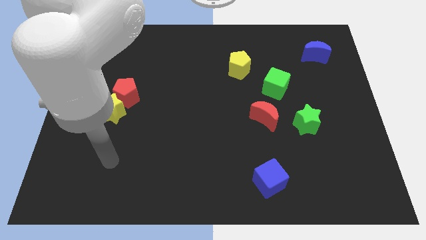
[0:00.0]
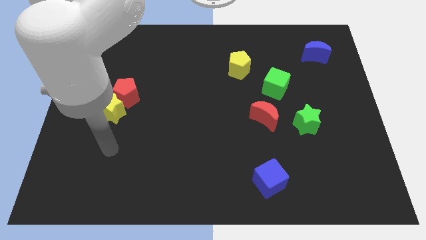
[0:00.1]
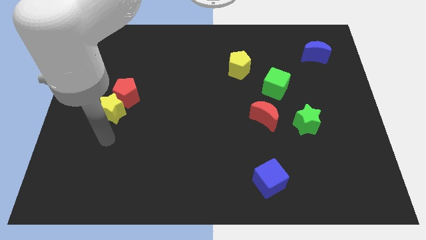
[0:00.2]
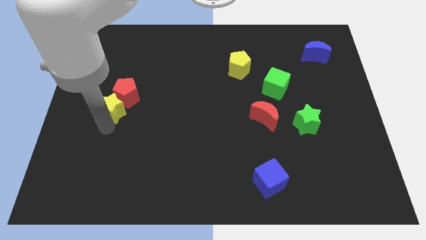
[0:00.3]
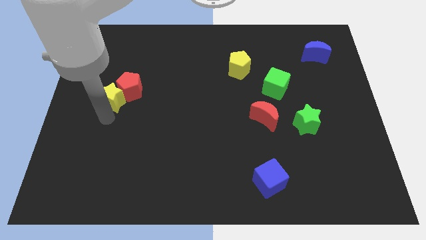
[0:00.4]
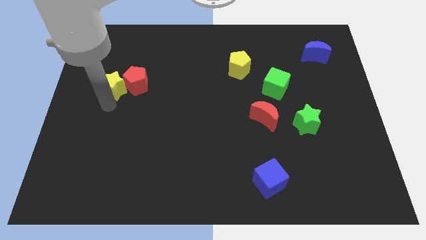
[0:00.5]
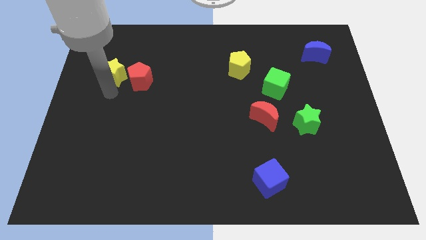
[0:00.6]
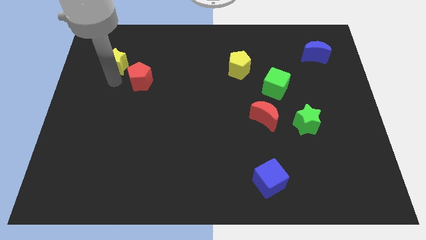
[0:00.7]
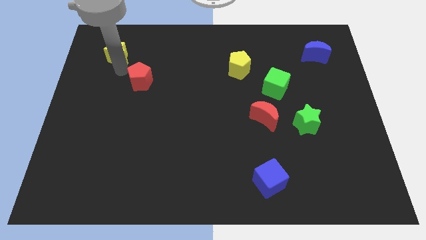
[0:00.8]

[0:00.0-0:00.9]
separate the red pentagon from the yellow star

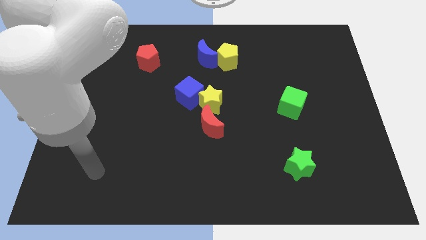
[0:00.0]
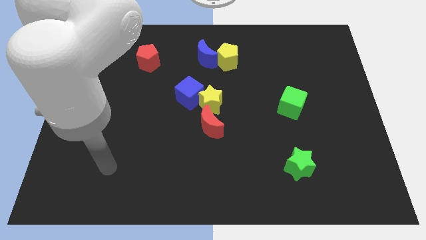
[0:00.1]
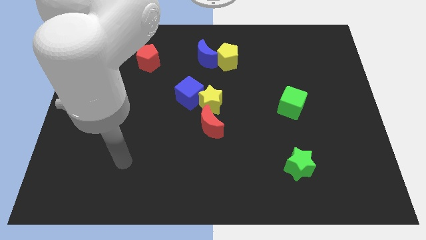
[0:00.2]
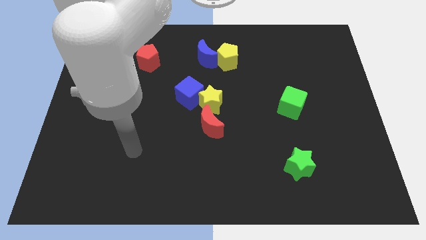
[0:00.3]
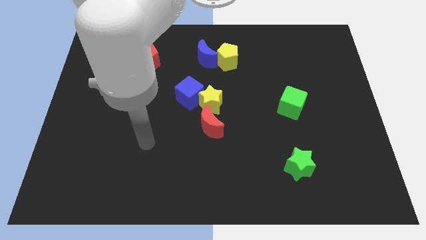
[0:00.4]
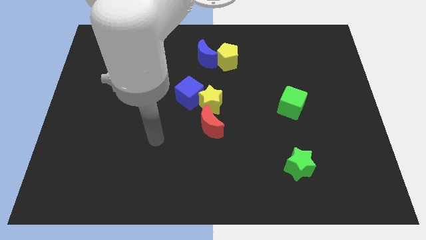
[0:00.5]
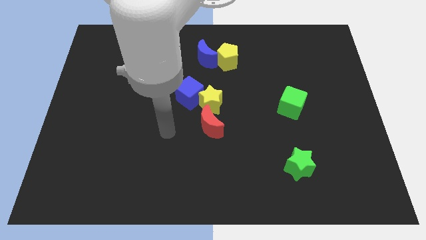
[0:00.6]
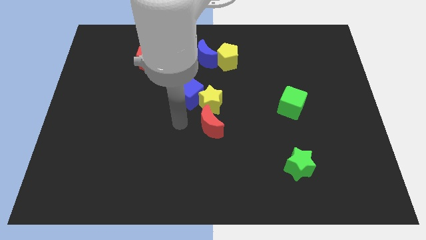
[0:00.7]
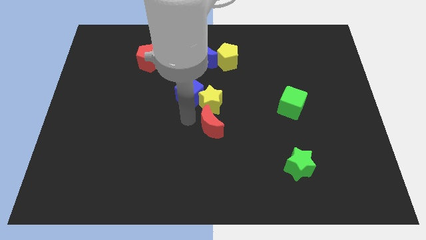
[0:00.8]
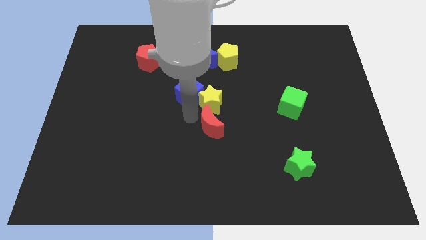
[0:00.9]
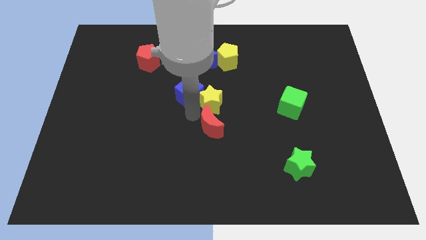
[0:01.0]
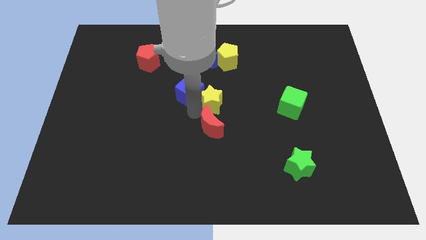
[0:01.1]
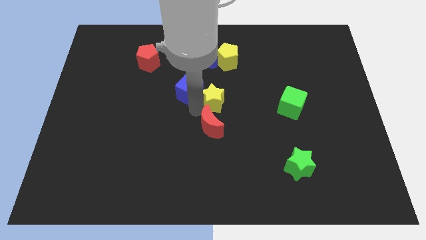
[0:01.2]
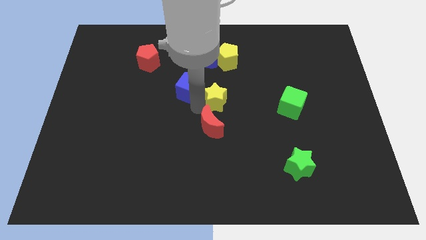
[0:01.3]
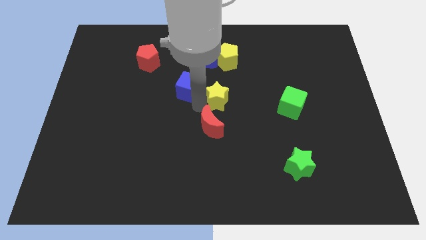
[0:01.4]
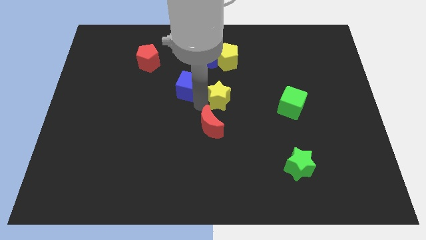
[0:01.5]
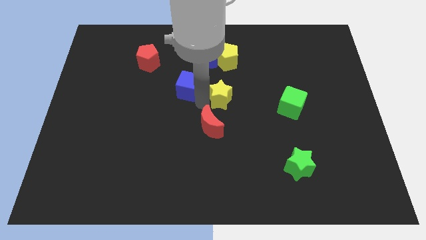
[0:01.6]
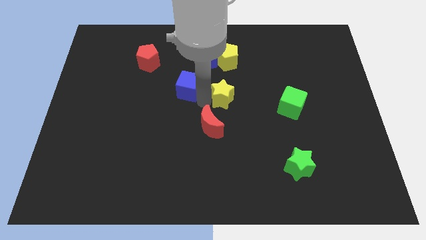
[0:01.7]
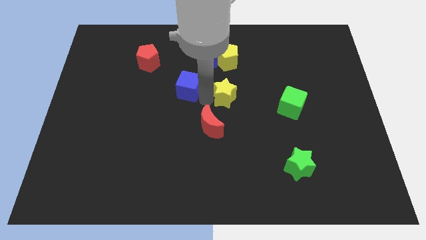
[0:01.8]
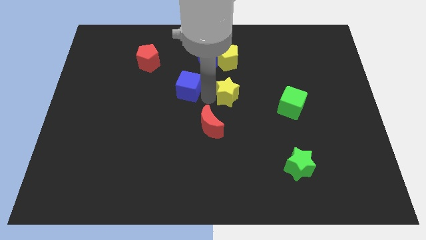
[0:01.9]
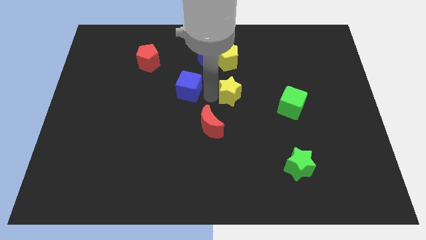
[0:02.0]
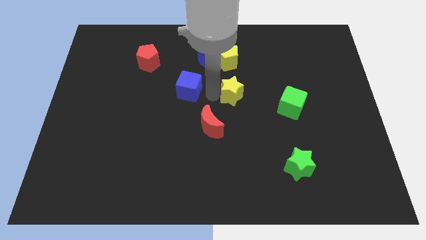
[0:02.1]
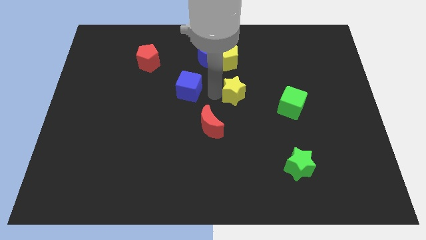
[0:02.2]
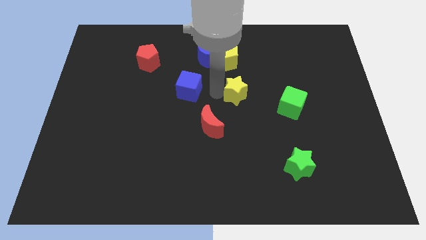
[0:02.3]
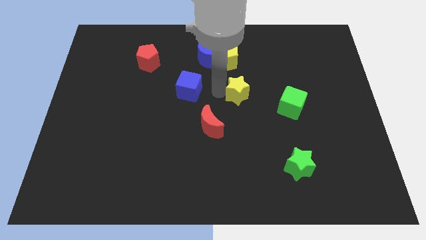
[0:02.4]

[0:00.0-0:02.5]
separate the yellow star from the blue cube and red moon

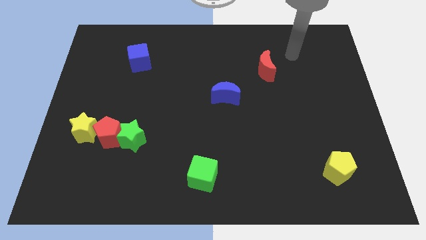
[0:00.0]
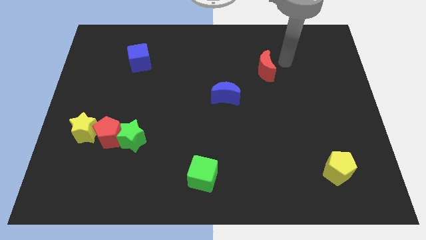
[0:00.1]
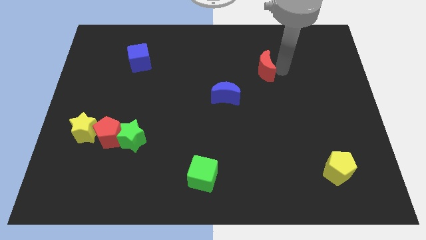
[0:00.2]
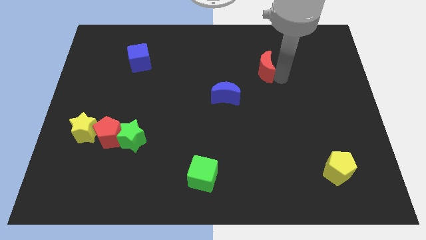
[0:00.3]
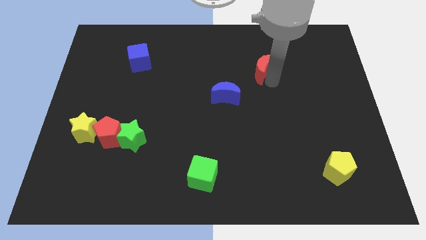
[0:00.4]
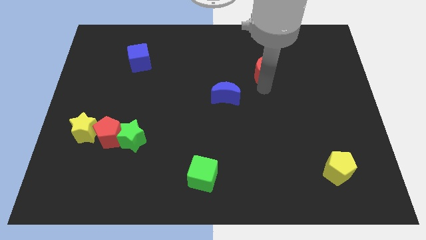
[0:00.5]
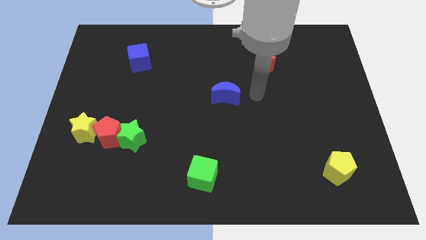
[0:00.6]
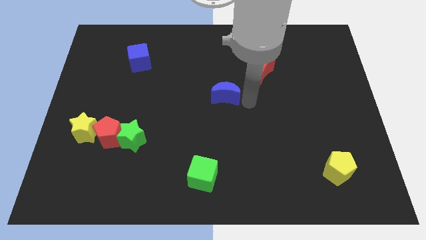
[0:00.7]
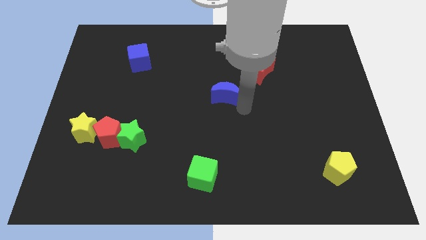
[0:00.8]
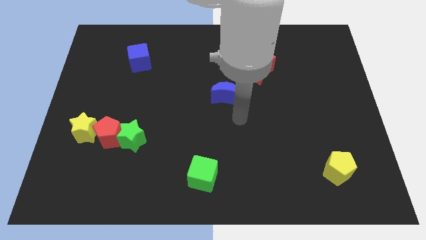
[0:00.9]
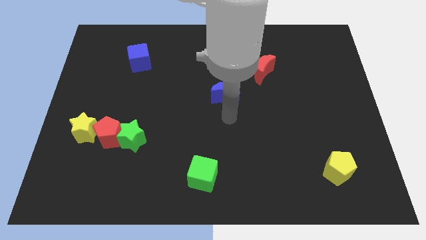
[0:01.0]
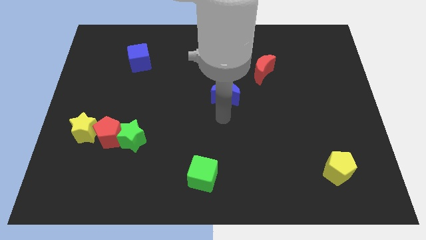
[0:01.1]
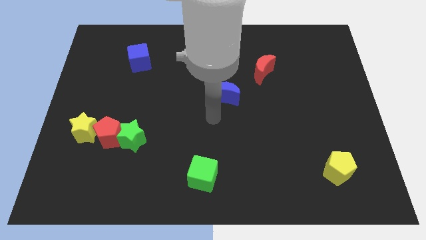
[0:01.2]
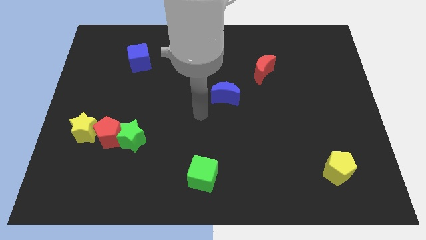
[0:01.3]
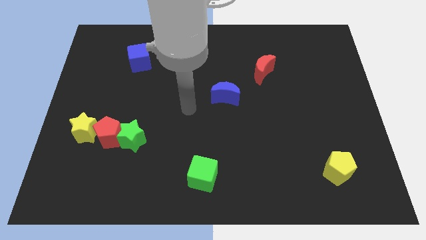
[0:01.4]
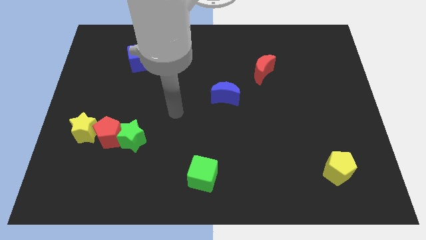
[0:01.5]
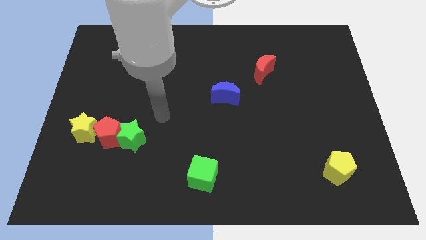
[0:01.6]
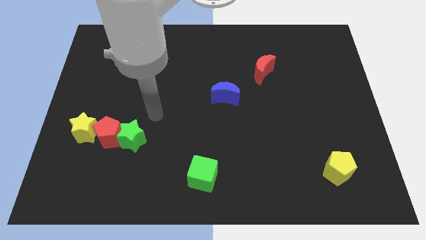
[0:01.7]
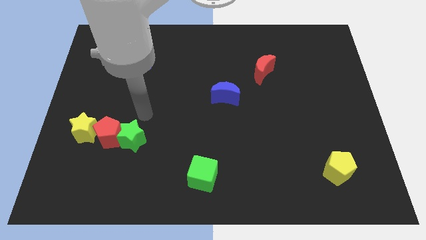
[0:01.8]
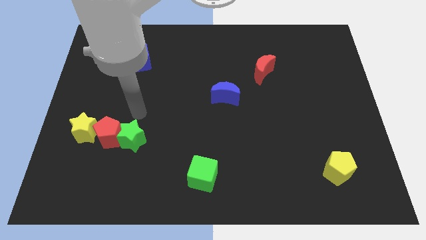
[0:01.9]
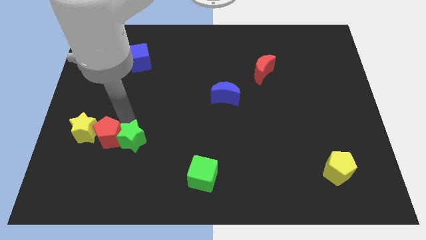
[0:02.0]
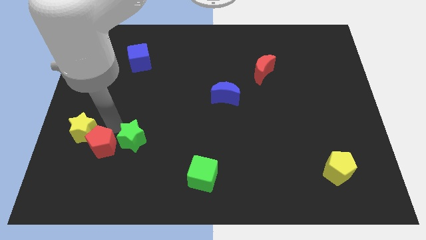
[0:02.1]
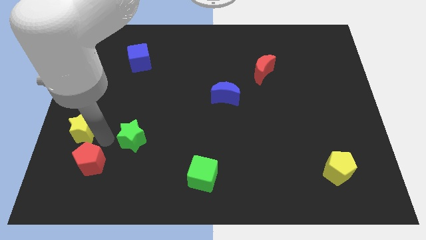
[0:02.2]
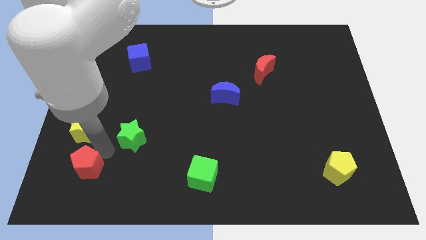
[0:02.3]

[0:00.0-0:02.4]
pull the green star apart from the red pentagon

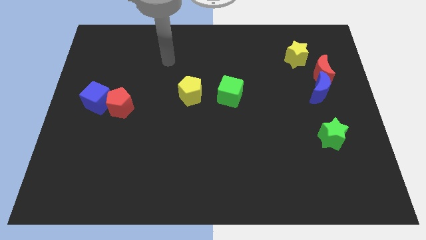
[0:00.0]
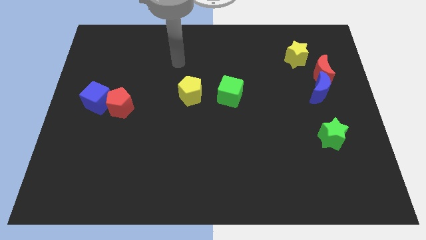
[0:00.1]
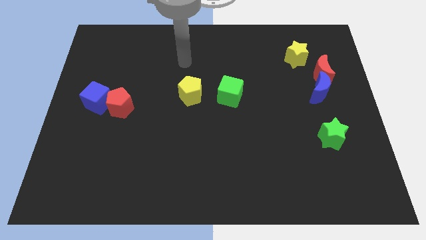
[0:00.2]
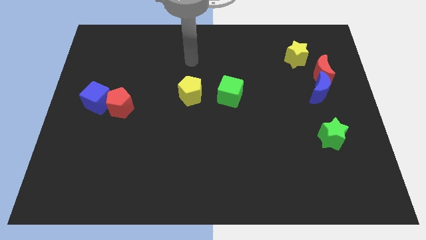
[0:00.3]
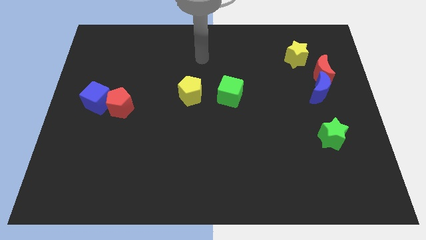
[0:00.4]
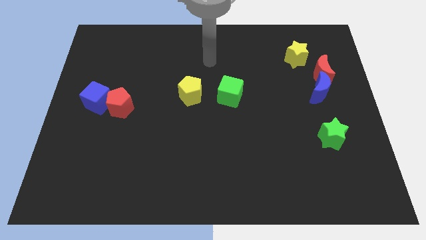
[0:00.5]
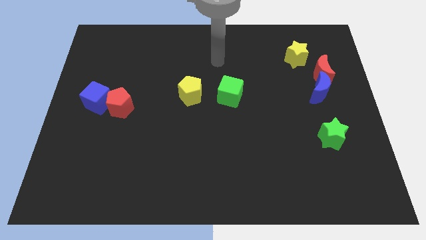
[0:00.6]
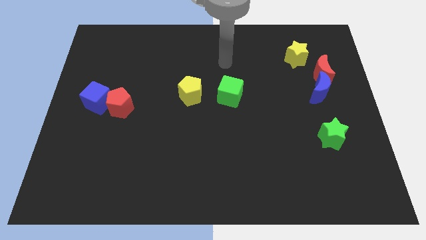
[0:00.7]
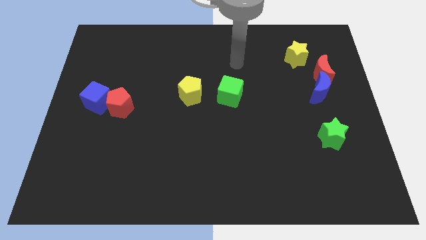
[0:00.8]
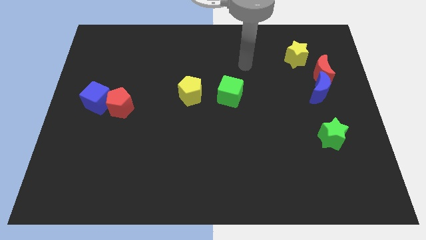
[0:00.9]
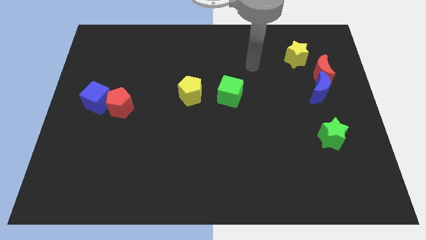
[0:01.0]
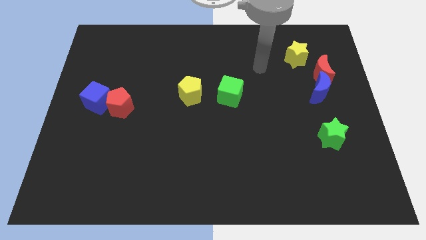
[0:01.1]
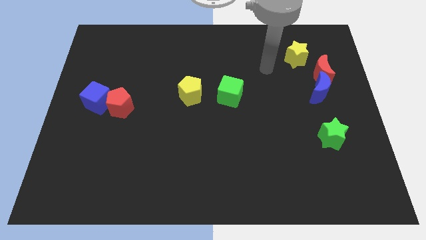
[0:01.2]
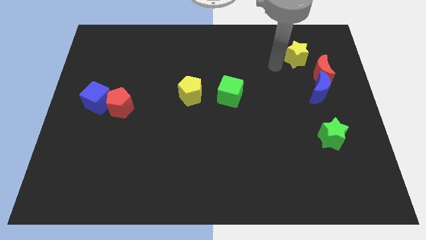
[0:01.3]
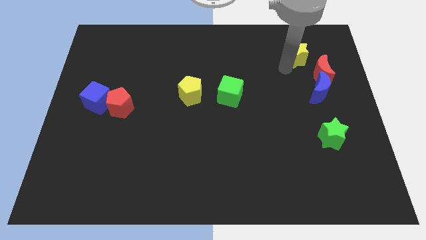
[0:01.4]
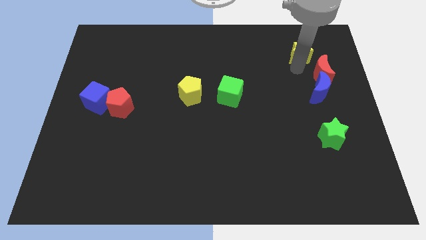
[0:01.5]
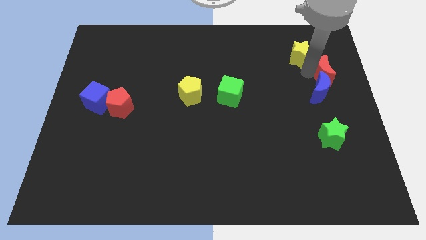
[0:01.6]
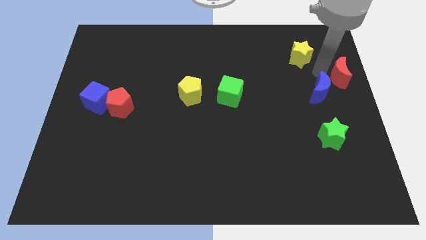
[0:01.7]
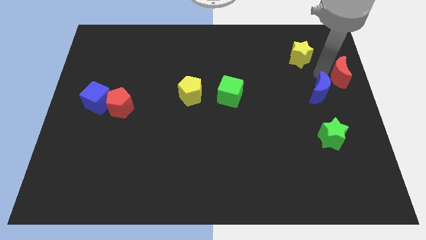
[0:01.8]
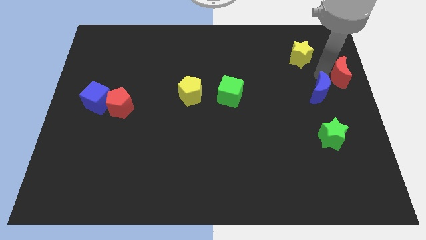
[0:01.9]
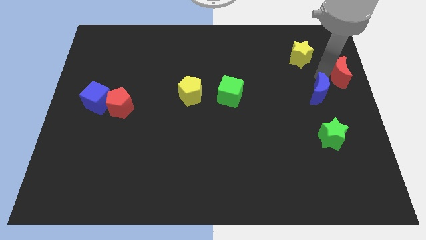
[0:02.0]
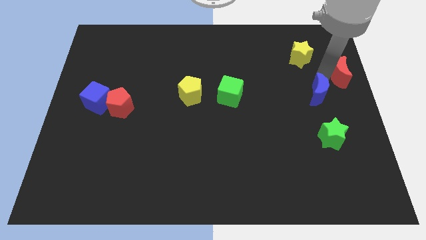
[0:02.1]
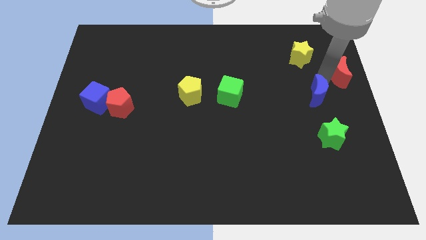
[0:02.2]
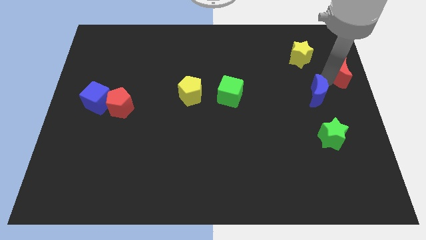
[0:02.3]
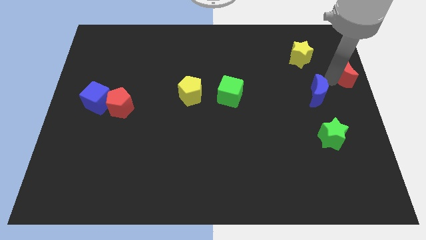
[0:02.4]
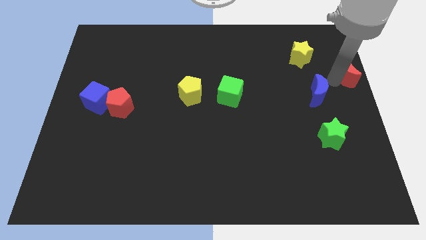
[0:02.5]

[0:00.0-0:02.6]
pull the blue moon apart from the red moon

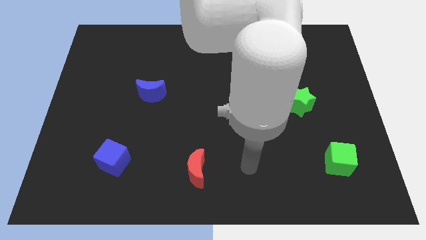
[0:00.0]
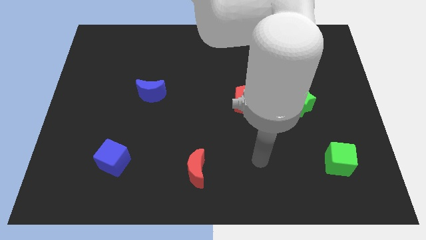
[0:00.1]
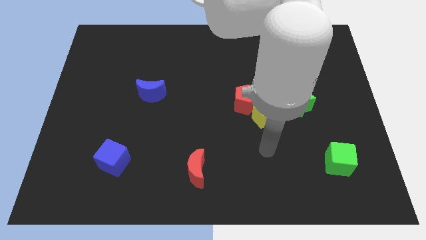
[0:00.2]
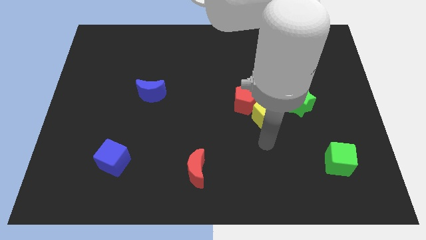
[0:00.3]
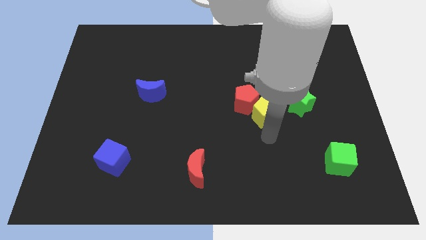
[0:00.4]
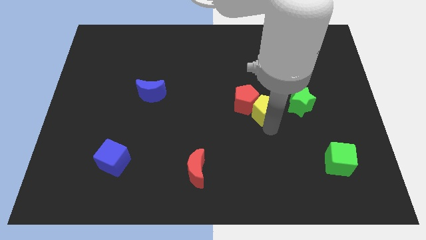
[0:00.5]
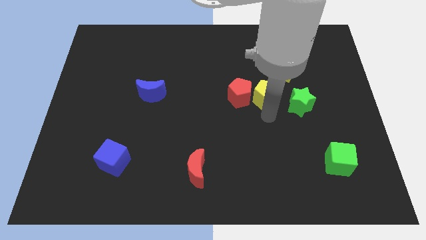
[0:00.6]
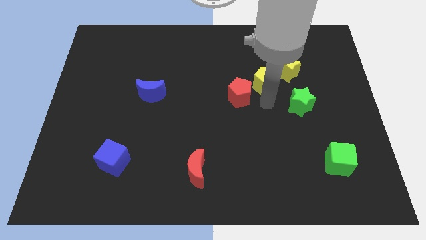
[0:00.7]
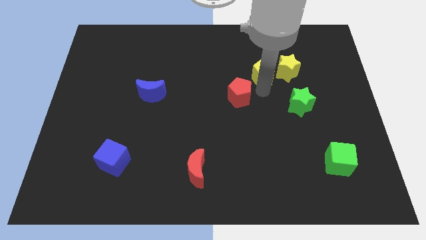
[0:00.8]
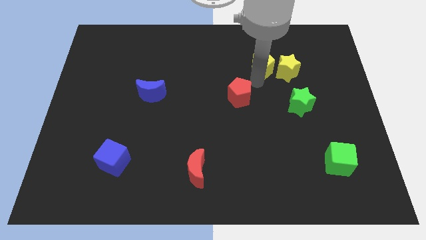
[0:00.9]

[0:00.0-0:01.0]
separate the red pentagon from the yellow pentagon
